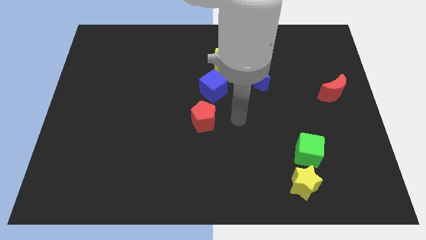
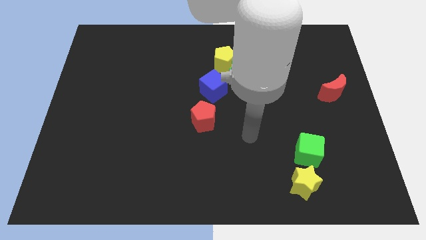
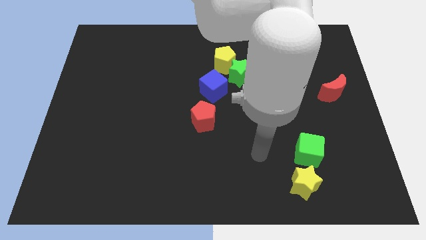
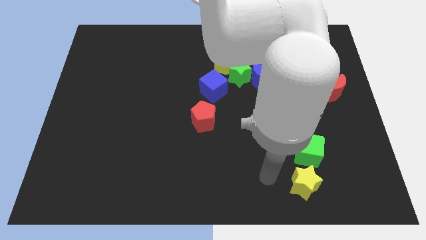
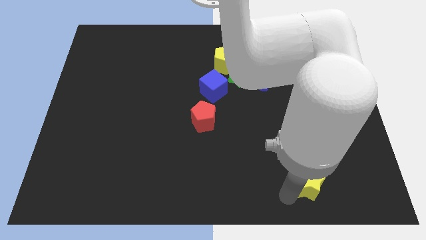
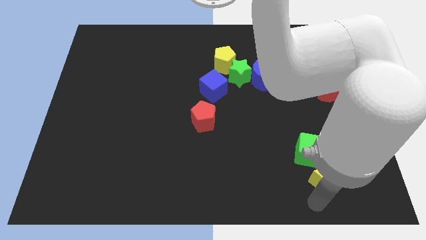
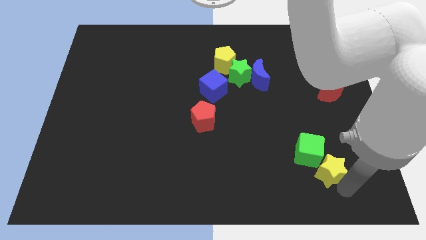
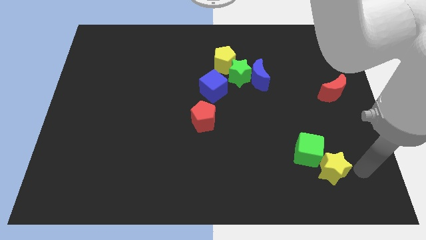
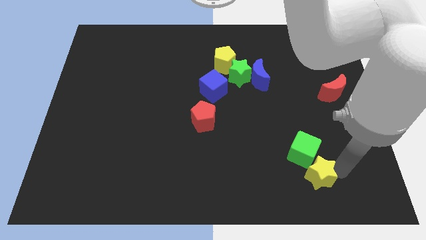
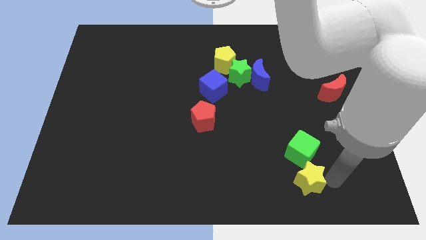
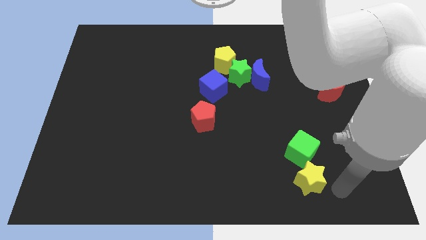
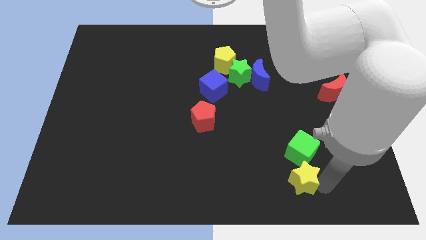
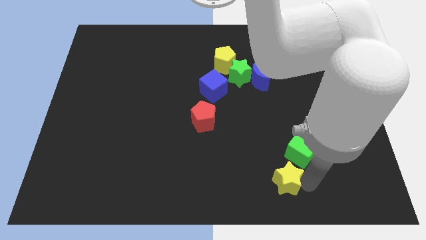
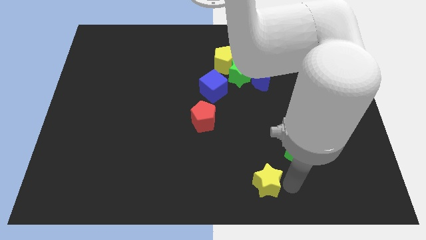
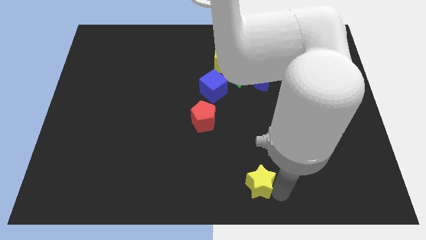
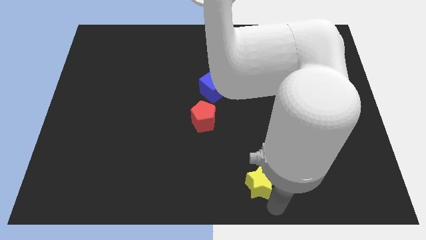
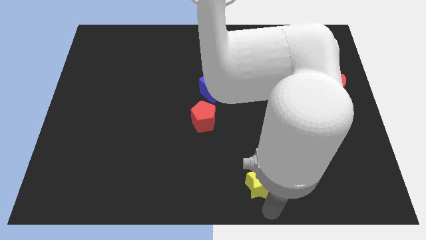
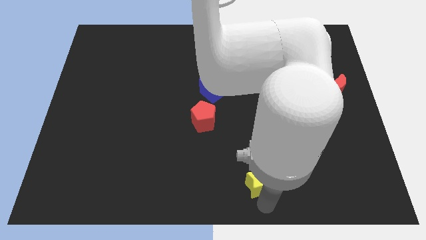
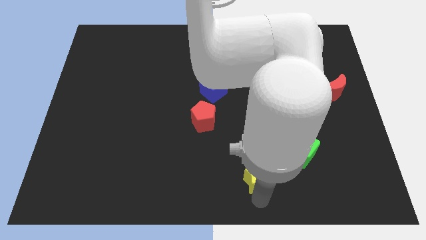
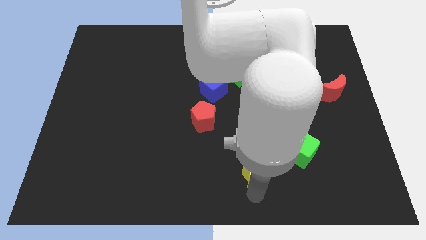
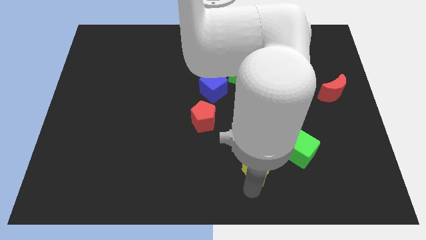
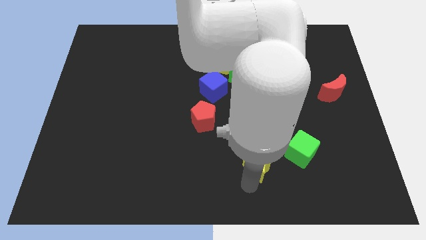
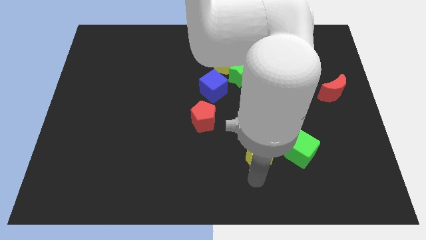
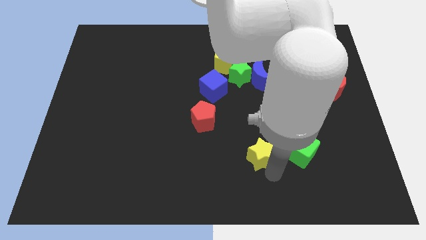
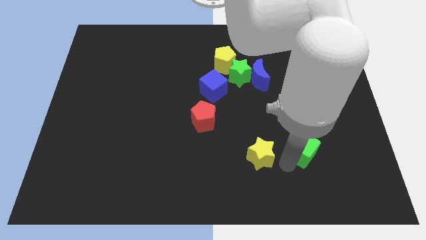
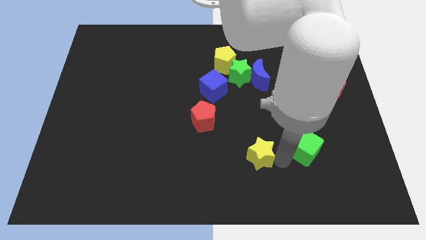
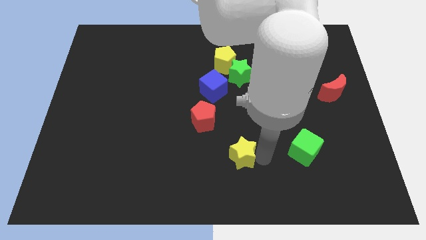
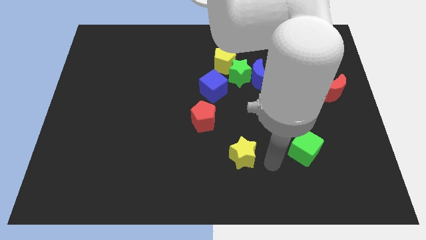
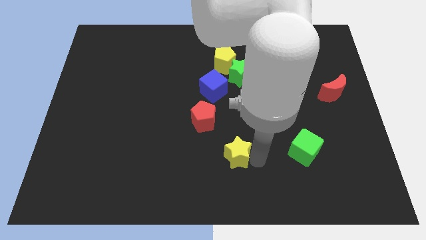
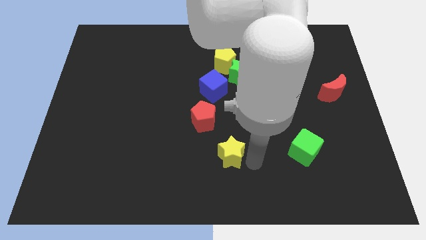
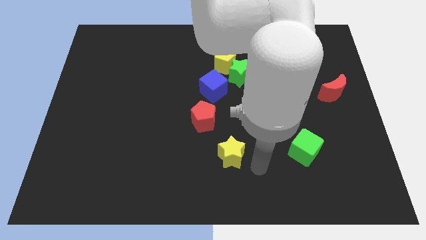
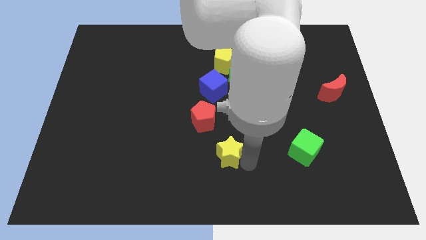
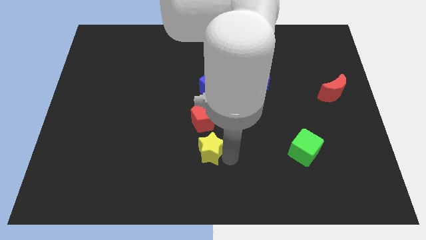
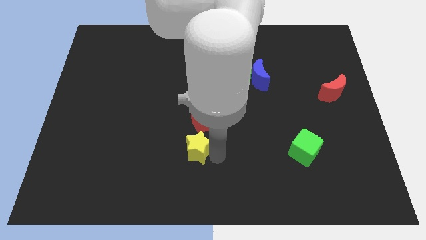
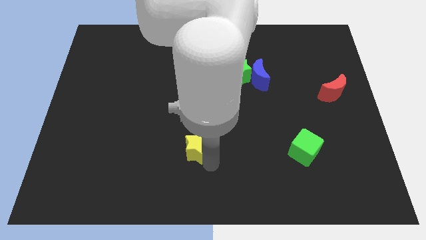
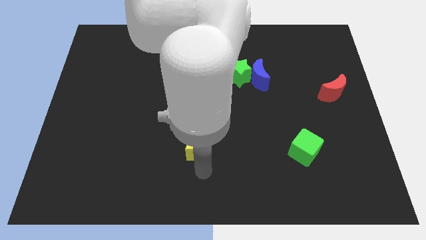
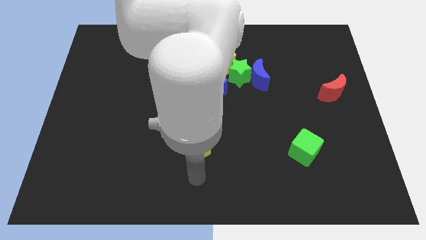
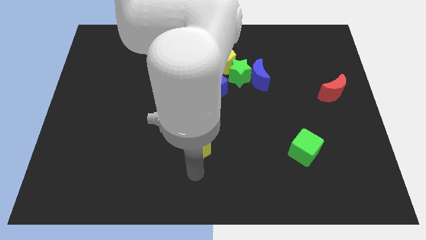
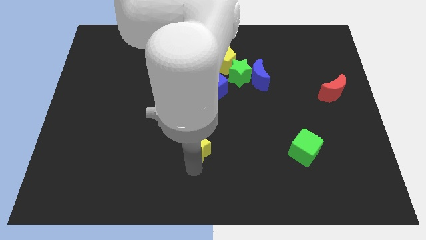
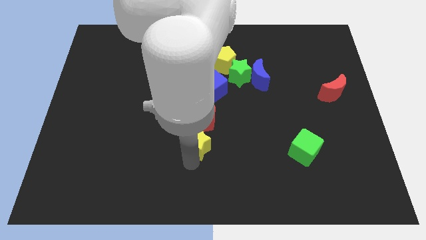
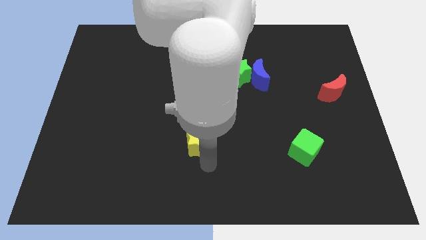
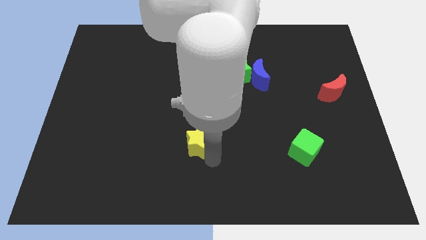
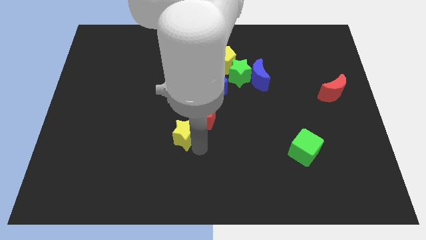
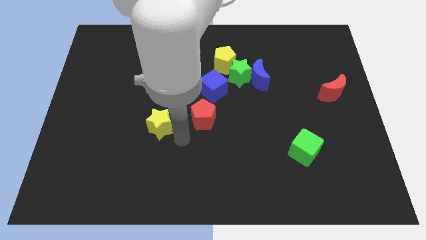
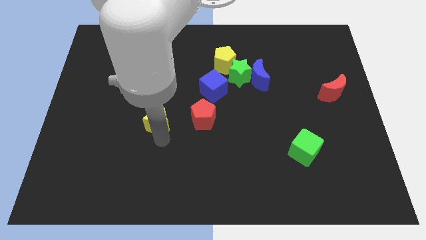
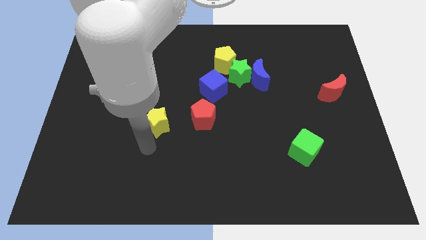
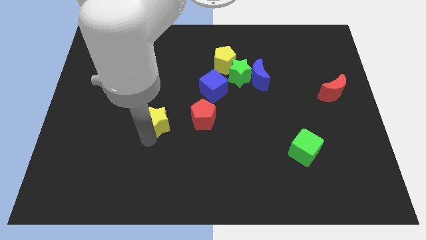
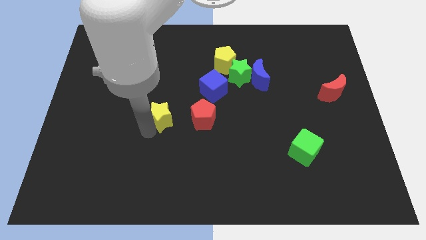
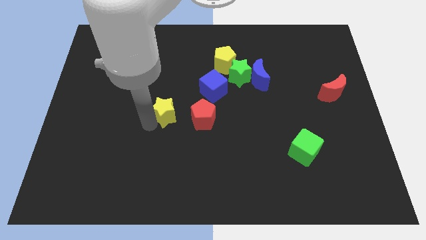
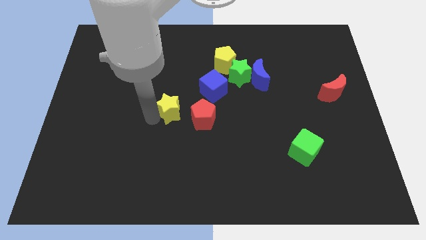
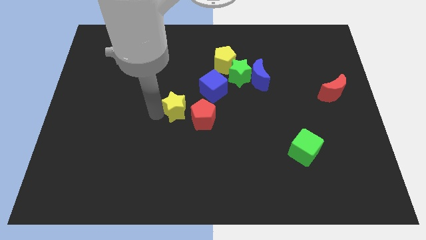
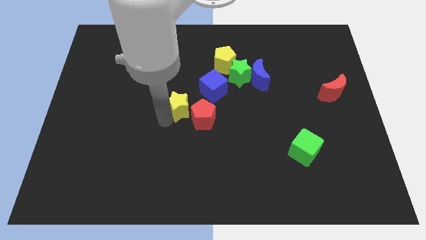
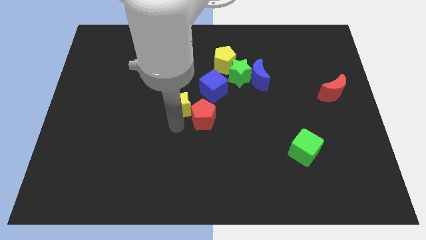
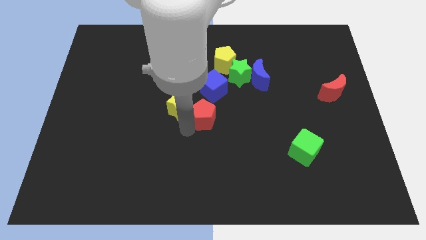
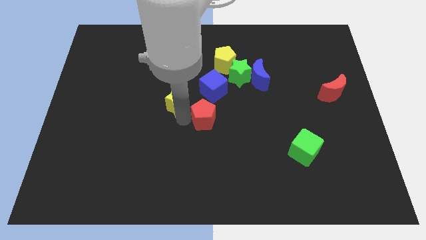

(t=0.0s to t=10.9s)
push the yellow star left of the blue cube

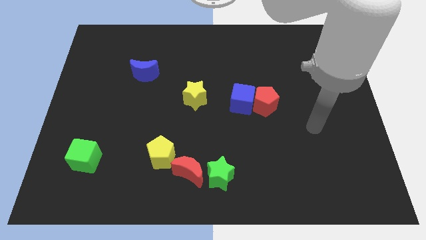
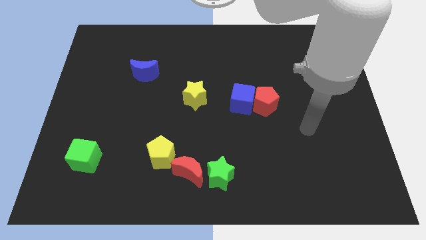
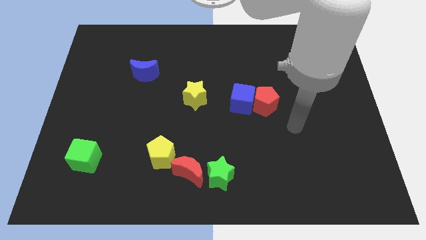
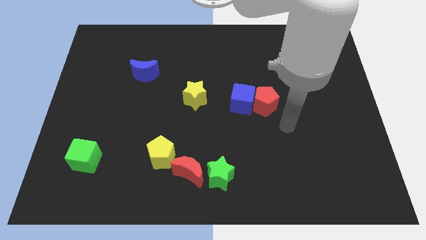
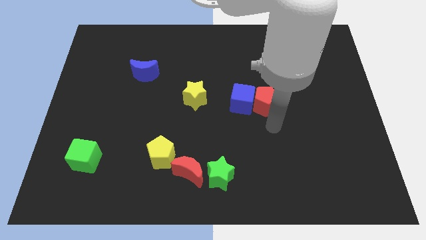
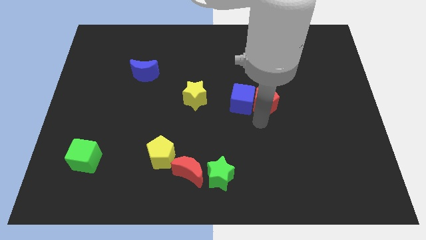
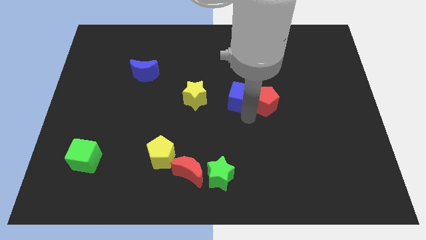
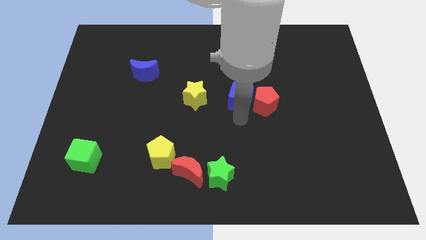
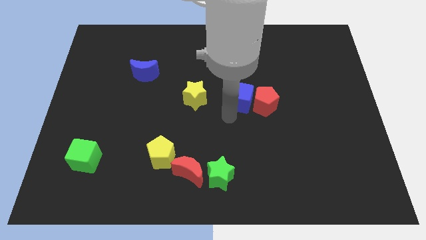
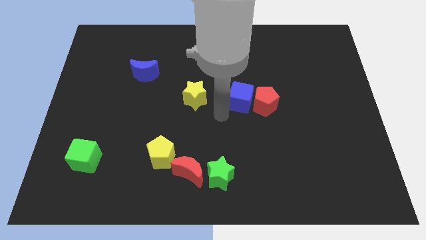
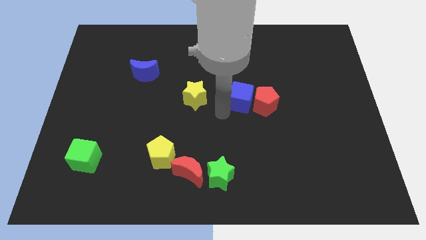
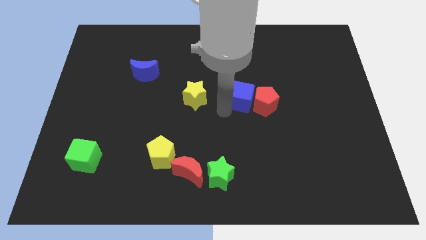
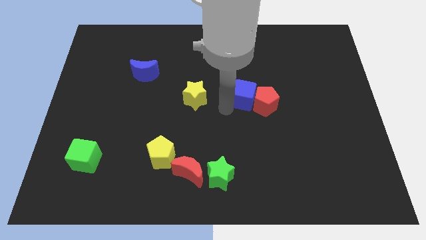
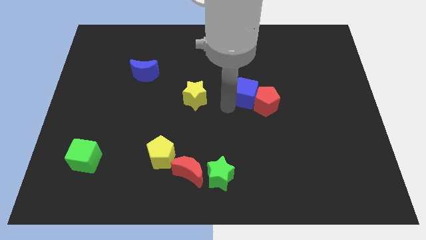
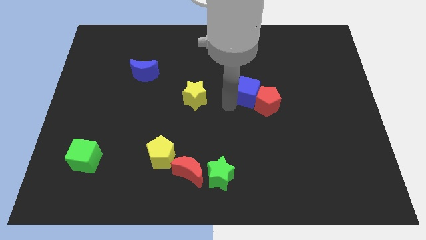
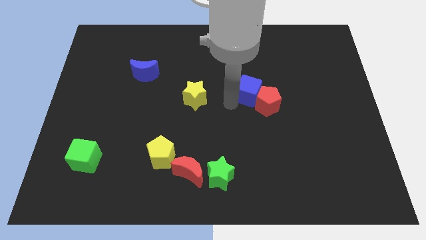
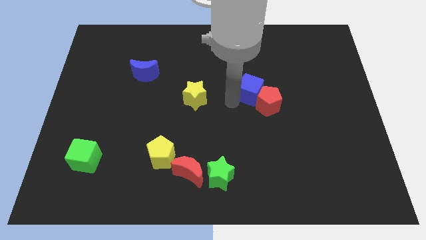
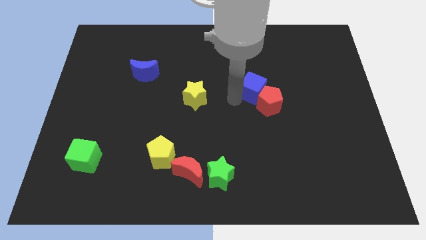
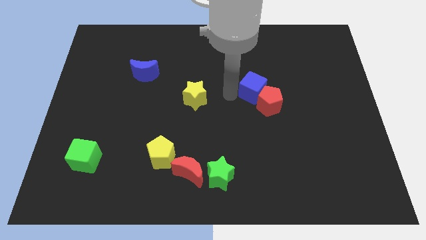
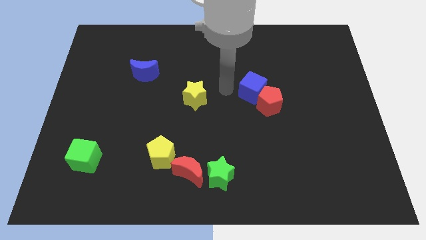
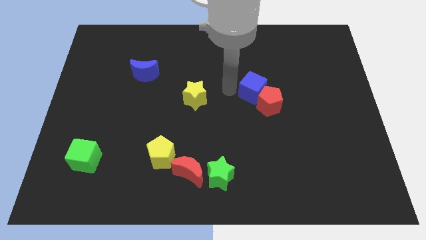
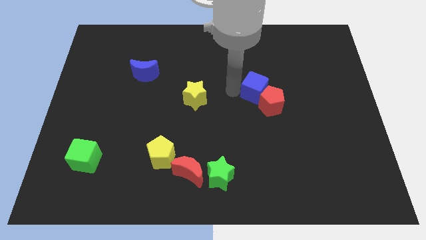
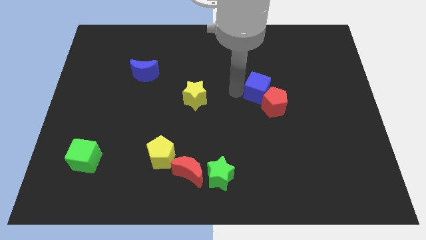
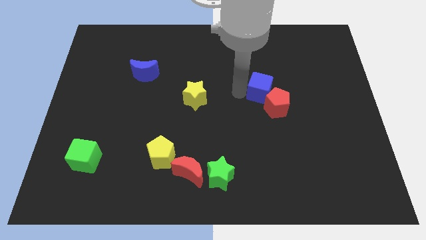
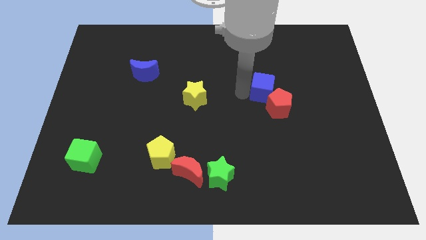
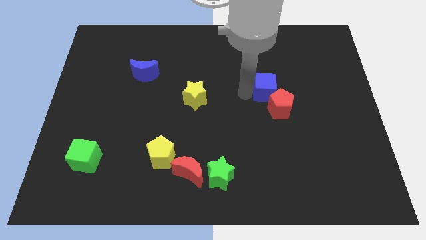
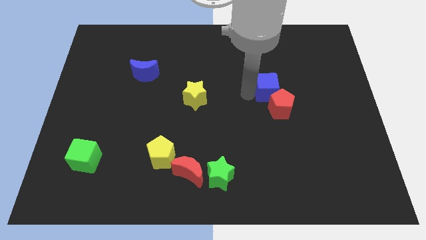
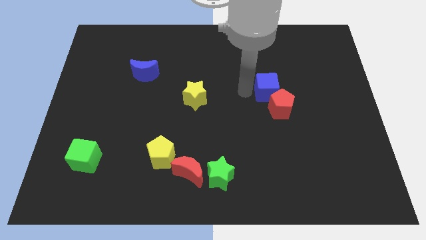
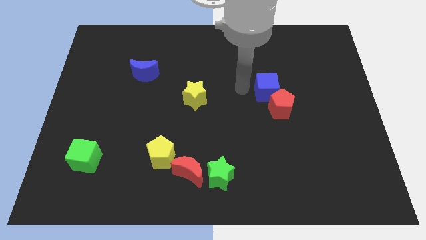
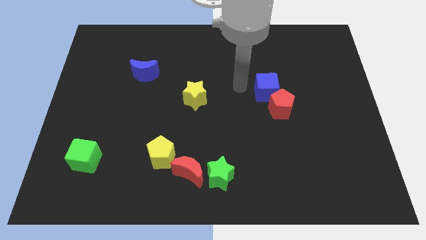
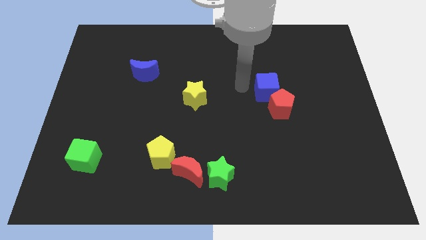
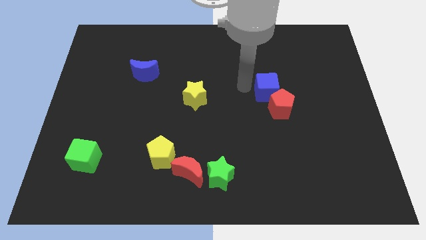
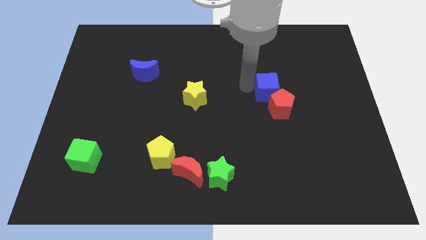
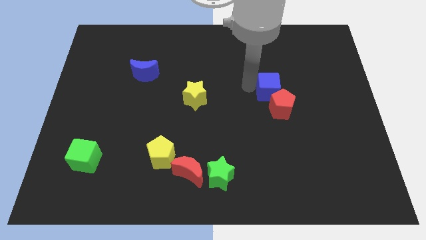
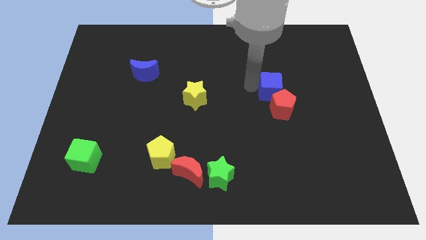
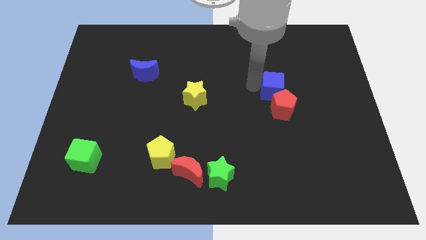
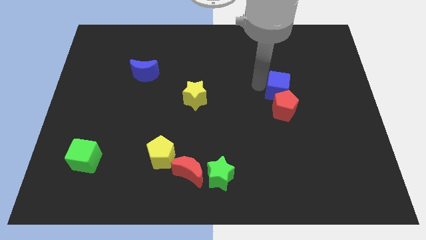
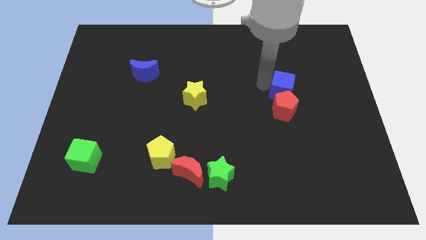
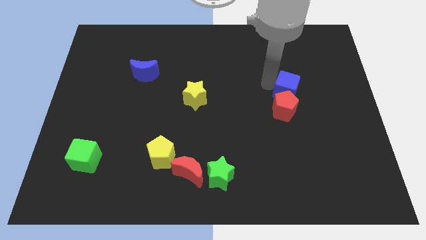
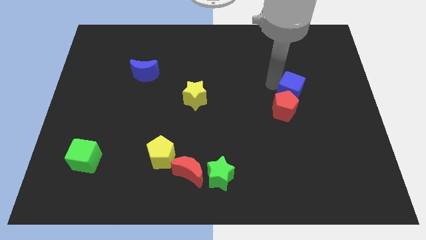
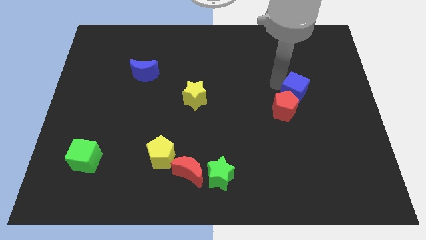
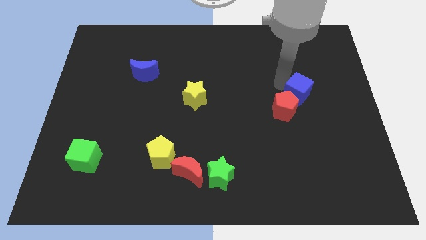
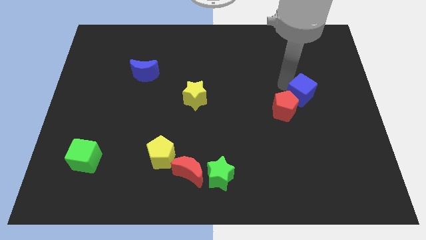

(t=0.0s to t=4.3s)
put the blue cube to the right side of the red pentagon
